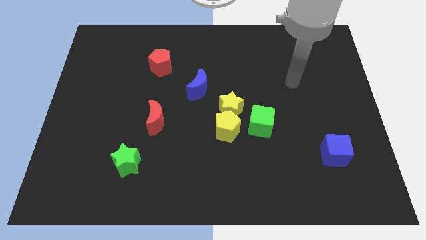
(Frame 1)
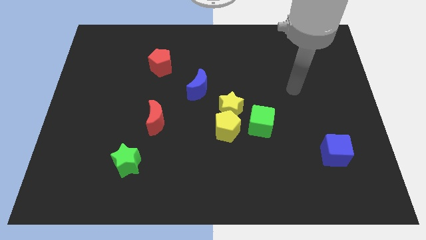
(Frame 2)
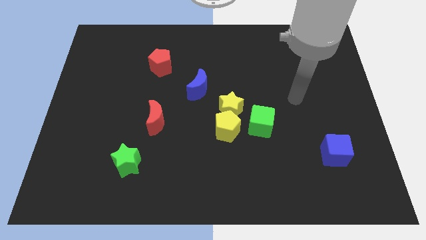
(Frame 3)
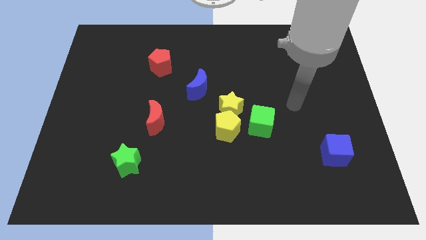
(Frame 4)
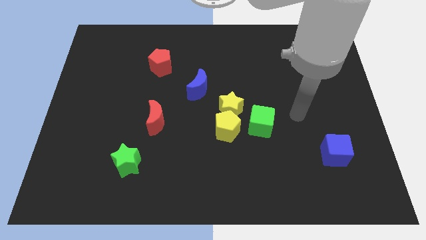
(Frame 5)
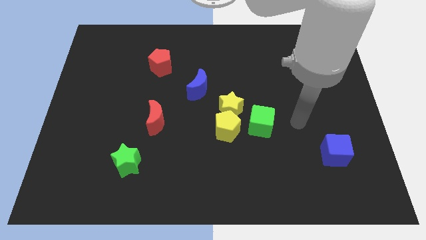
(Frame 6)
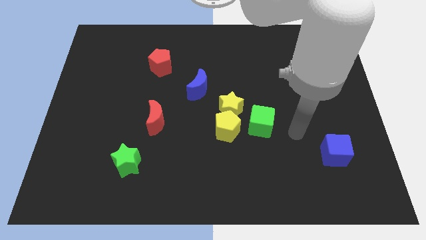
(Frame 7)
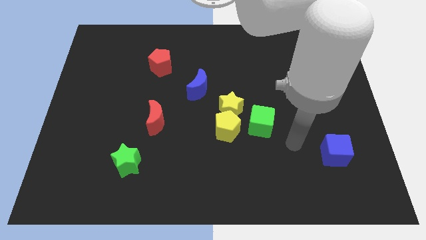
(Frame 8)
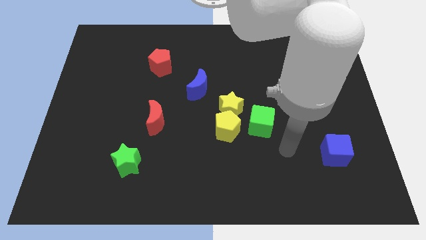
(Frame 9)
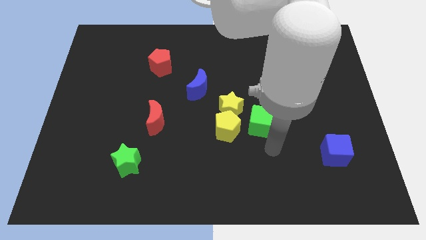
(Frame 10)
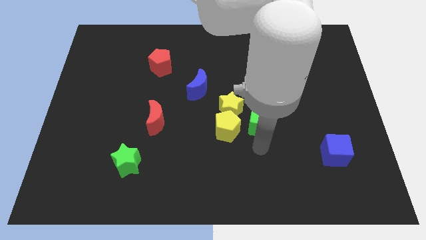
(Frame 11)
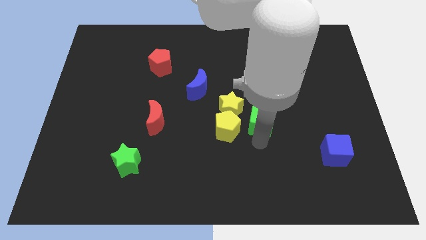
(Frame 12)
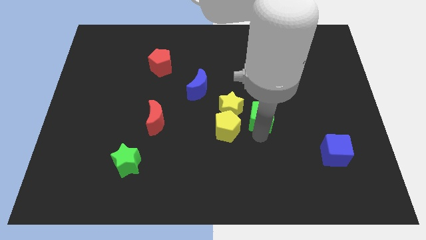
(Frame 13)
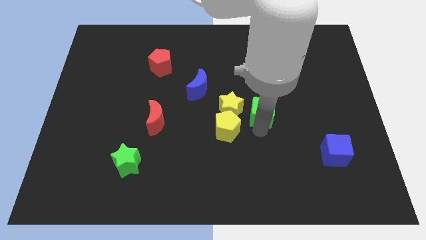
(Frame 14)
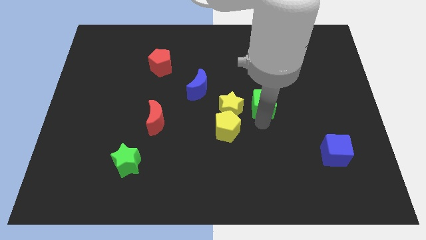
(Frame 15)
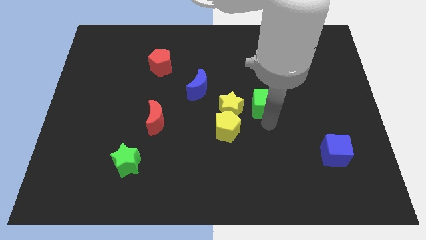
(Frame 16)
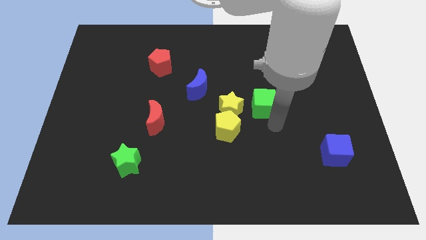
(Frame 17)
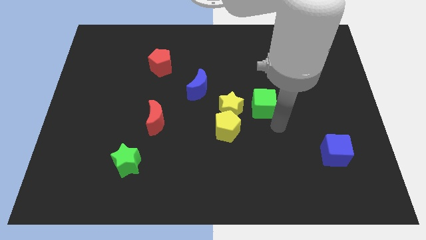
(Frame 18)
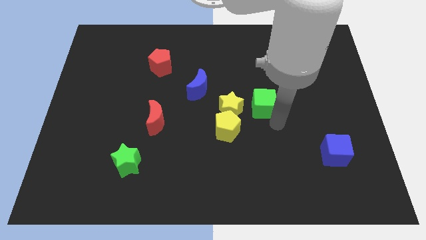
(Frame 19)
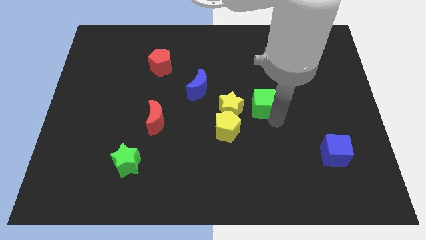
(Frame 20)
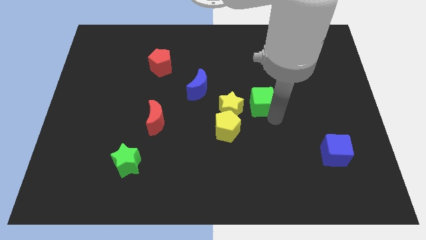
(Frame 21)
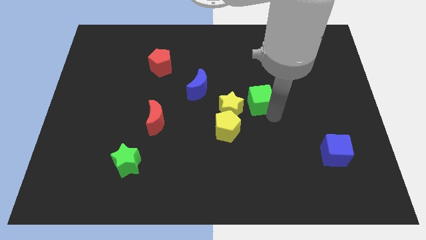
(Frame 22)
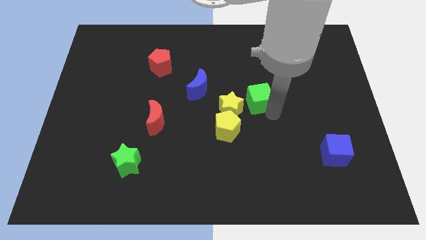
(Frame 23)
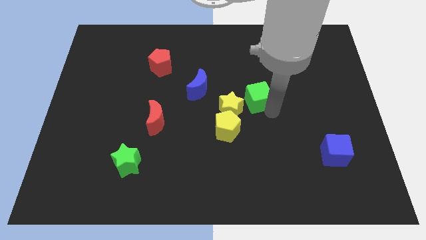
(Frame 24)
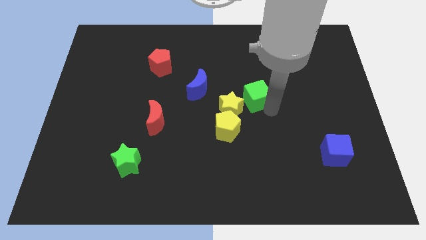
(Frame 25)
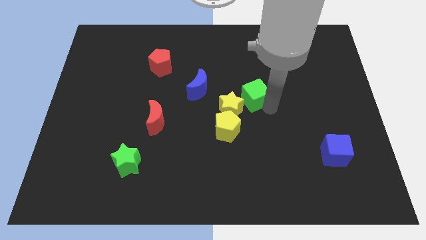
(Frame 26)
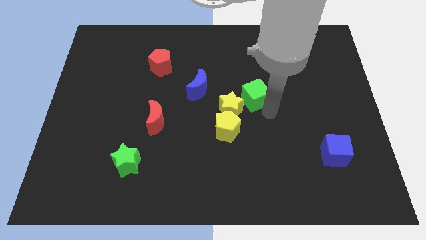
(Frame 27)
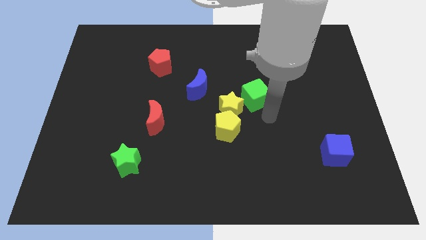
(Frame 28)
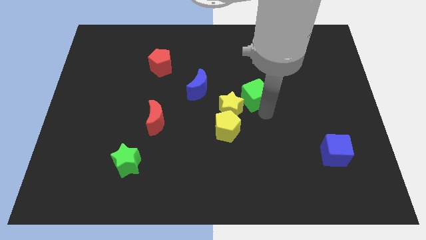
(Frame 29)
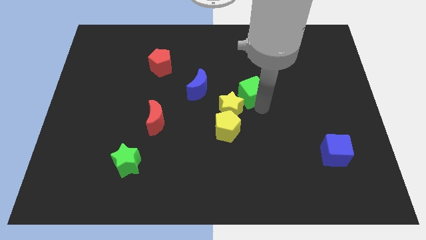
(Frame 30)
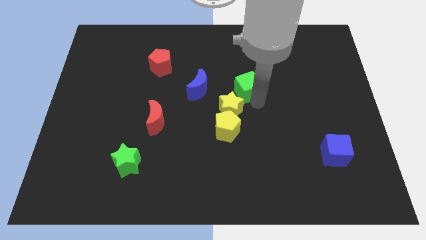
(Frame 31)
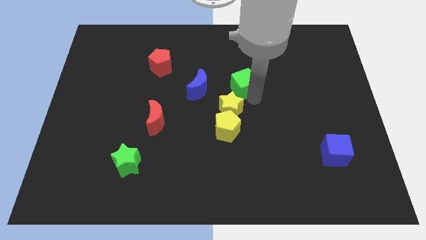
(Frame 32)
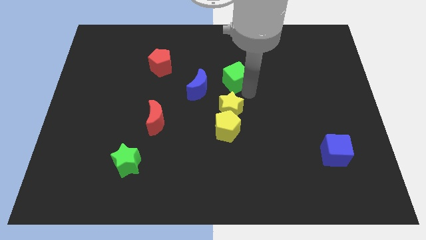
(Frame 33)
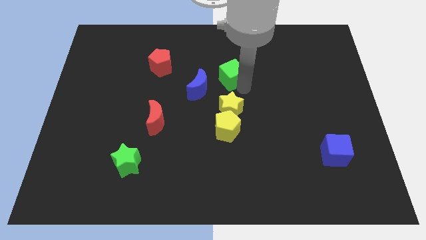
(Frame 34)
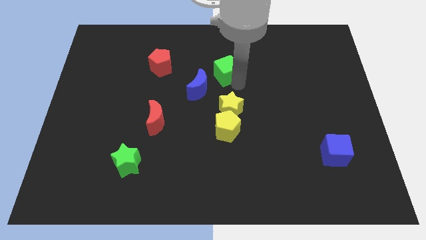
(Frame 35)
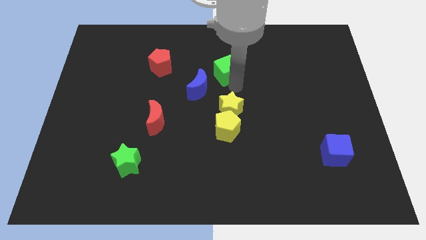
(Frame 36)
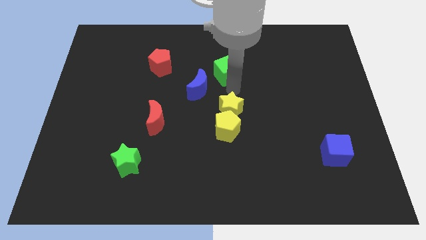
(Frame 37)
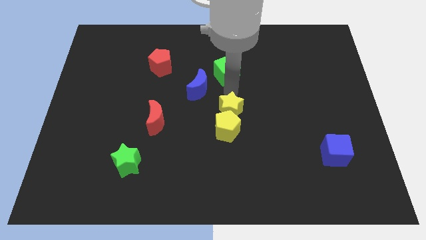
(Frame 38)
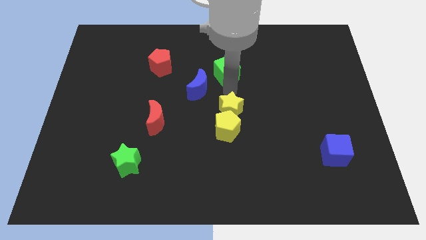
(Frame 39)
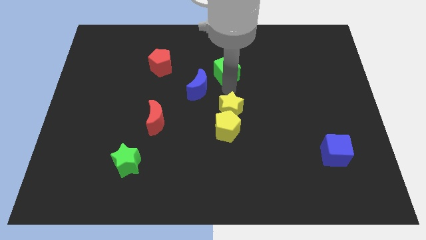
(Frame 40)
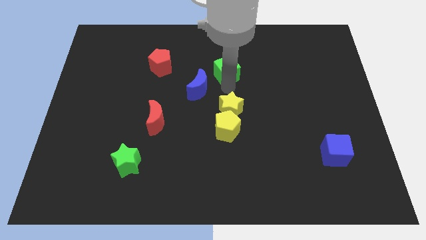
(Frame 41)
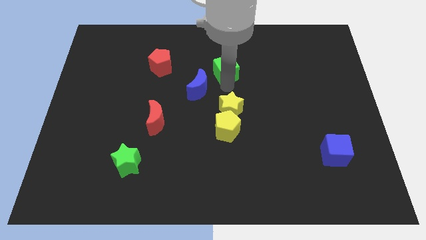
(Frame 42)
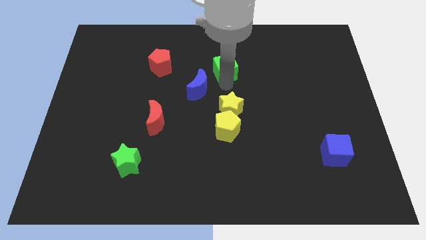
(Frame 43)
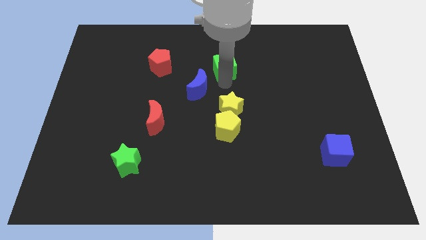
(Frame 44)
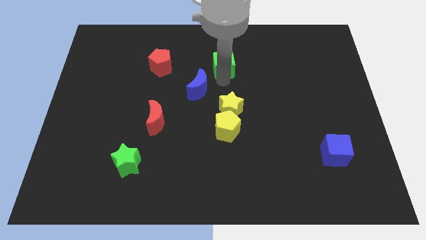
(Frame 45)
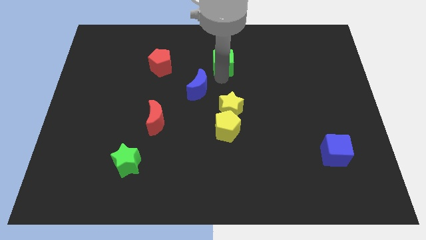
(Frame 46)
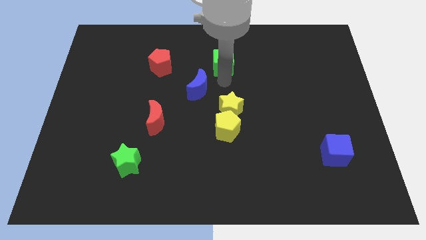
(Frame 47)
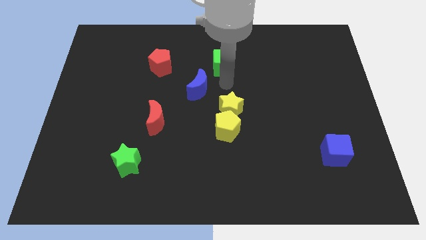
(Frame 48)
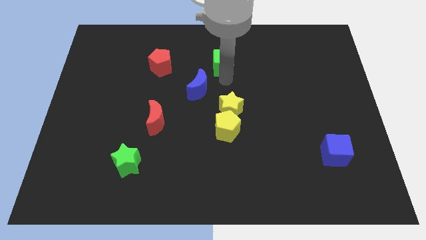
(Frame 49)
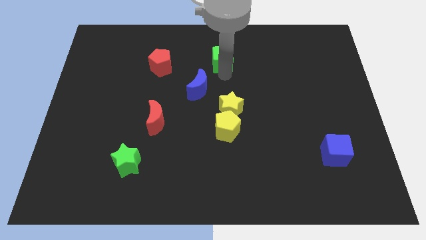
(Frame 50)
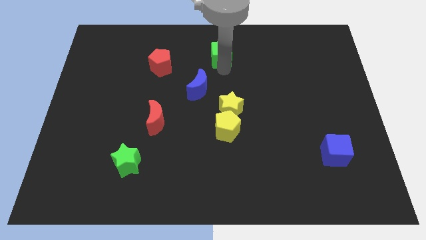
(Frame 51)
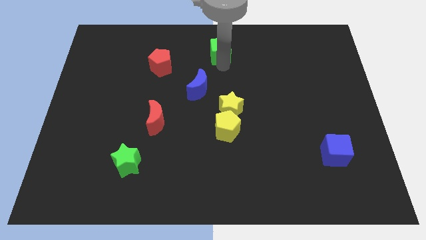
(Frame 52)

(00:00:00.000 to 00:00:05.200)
move the green cube to the towards your base

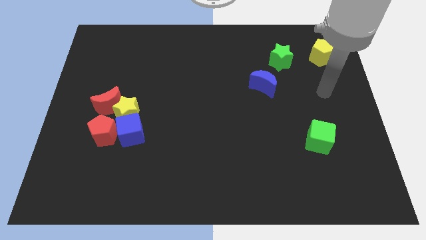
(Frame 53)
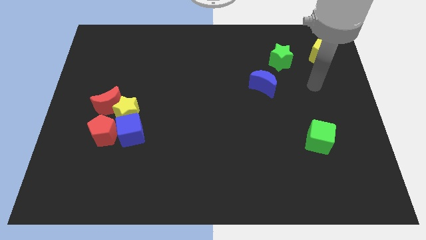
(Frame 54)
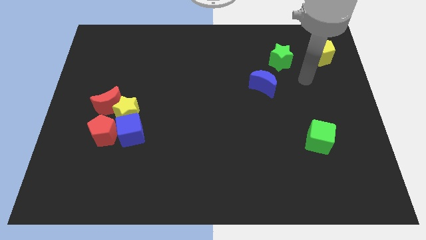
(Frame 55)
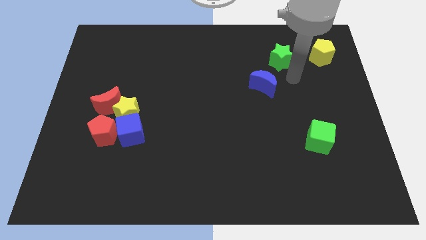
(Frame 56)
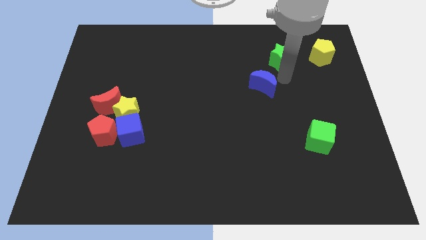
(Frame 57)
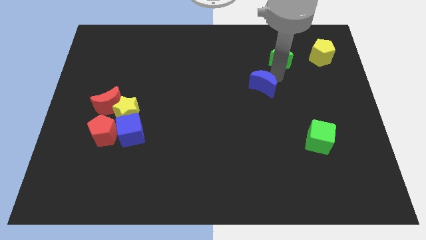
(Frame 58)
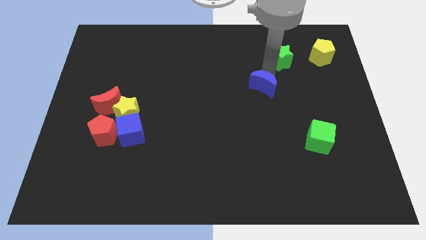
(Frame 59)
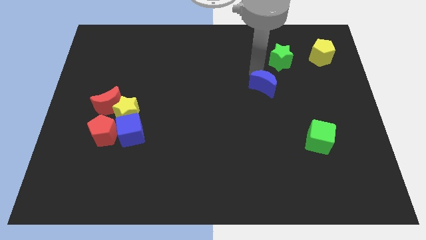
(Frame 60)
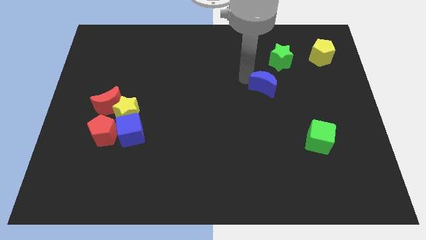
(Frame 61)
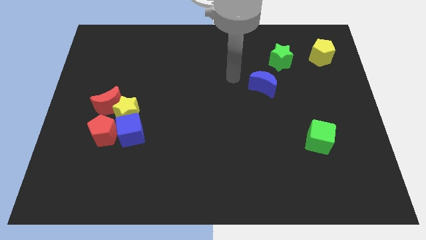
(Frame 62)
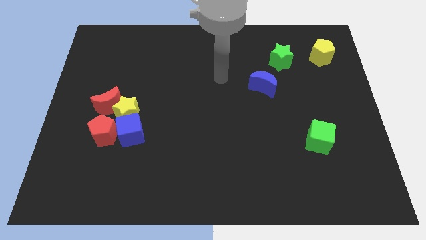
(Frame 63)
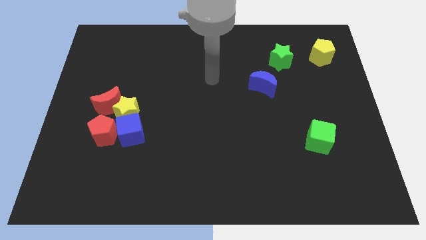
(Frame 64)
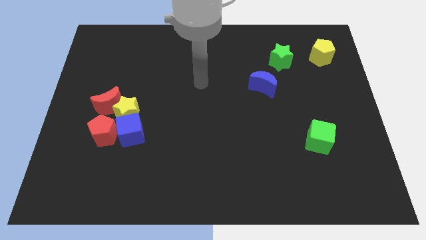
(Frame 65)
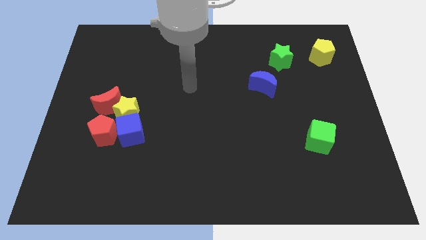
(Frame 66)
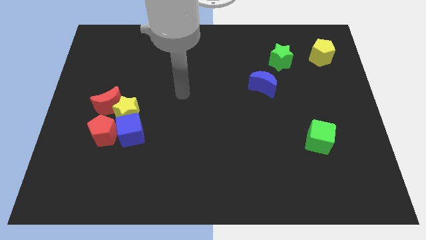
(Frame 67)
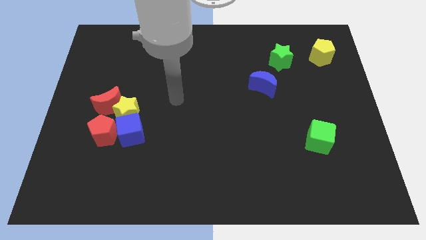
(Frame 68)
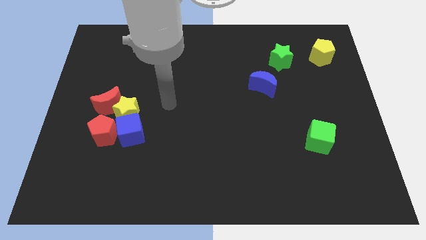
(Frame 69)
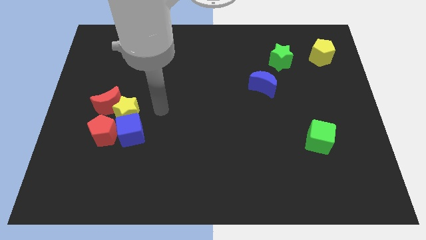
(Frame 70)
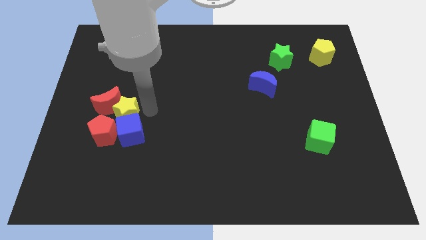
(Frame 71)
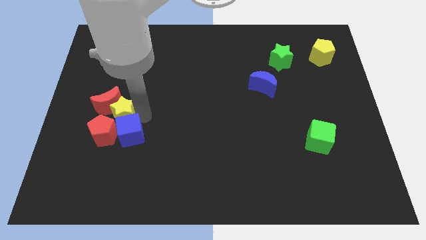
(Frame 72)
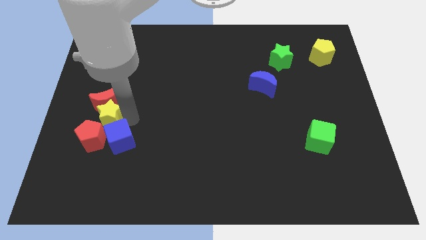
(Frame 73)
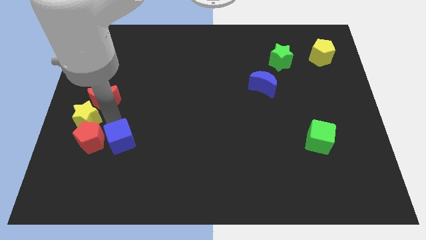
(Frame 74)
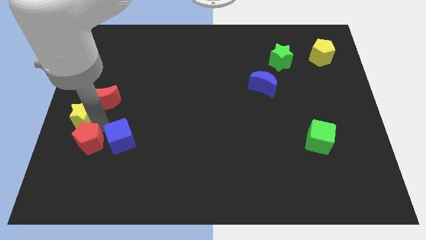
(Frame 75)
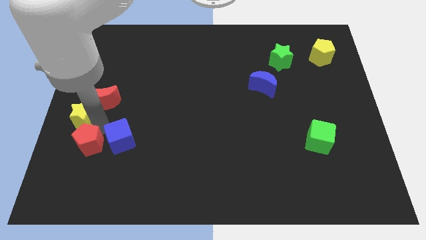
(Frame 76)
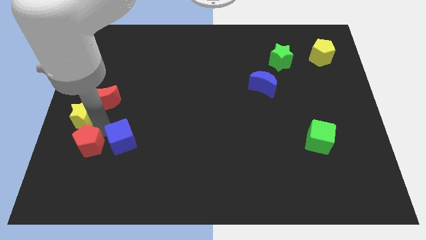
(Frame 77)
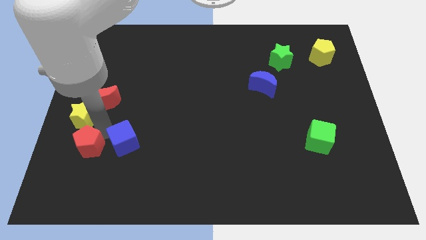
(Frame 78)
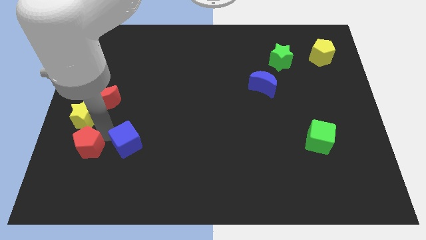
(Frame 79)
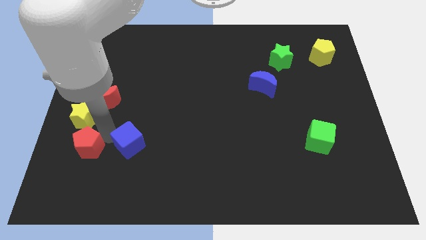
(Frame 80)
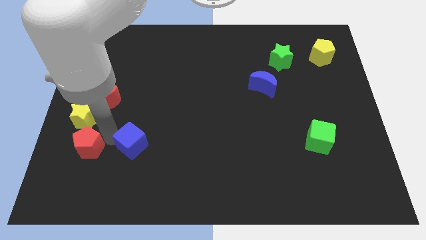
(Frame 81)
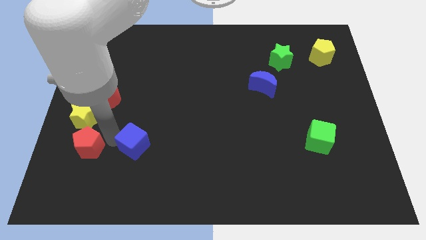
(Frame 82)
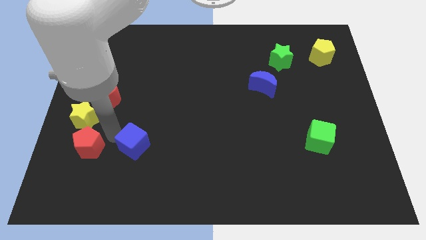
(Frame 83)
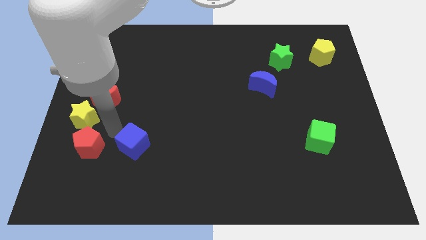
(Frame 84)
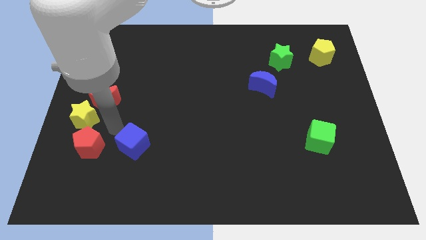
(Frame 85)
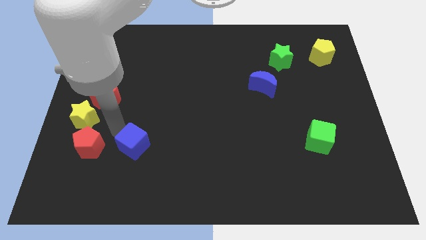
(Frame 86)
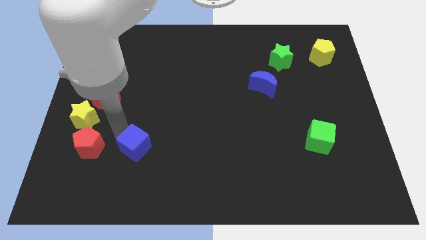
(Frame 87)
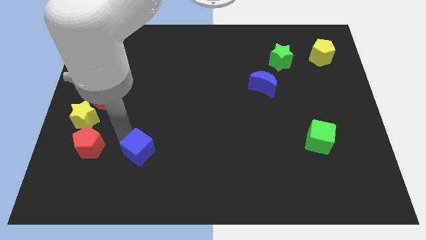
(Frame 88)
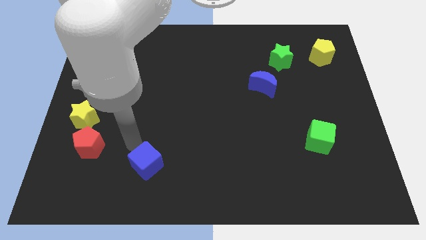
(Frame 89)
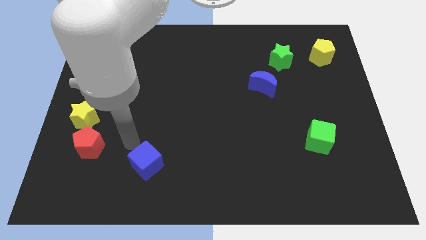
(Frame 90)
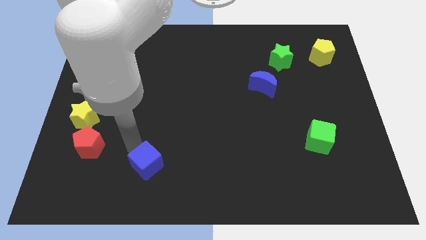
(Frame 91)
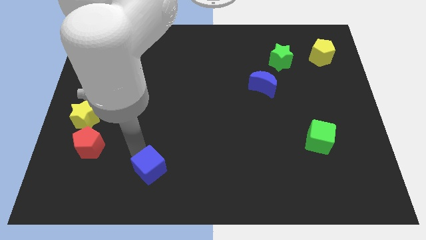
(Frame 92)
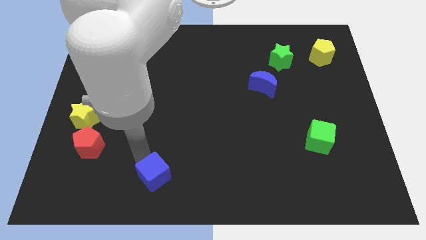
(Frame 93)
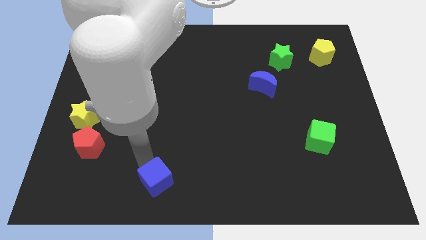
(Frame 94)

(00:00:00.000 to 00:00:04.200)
slide the blue cube to the bottom side
